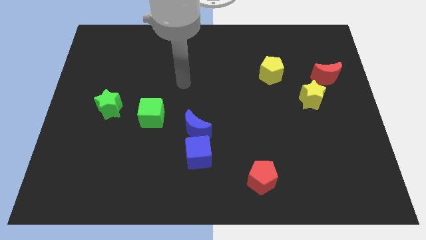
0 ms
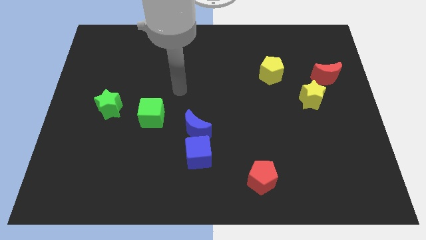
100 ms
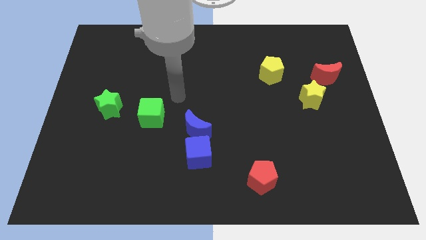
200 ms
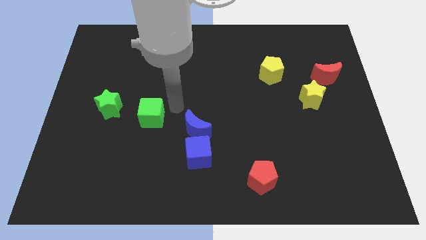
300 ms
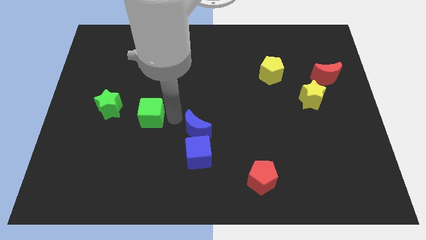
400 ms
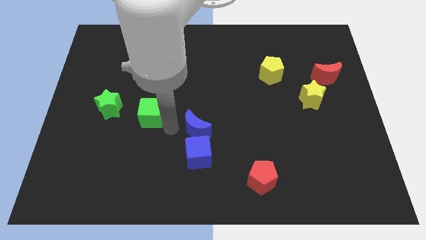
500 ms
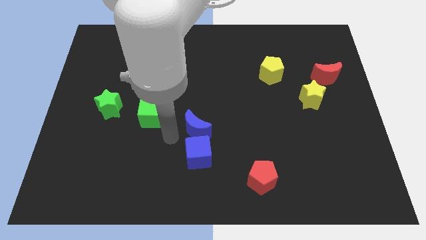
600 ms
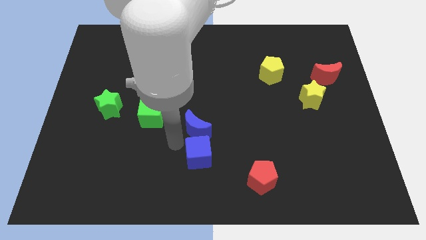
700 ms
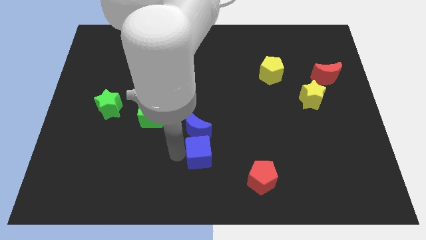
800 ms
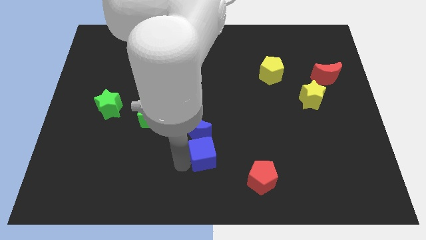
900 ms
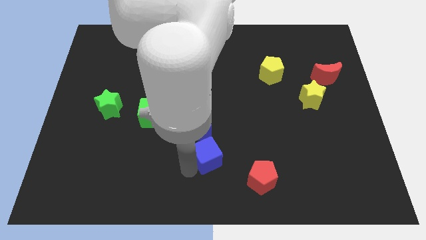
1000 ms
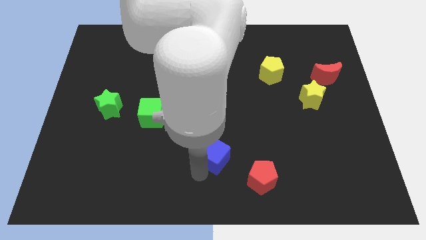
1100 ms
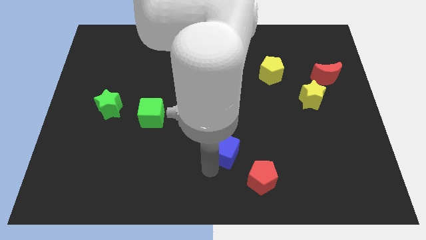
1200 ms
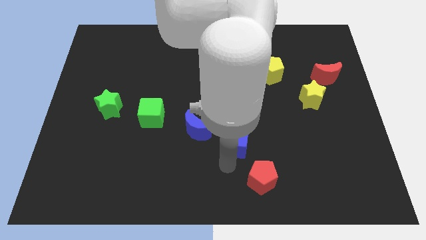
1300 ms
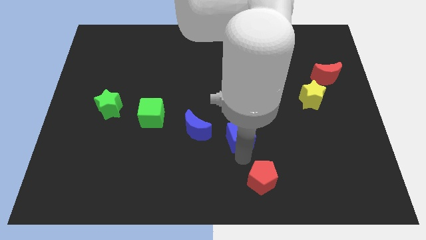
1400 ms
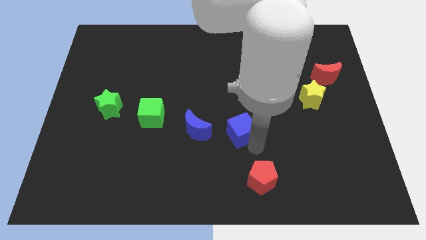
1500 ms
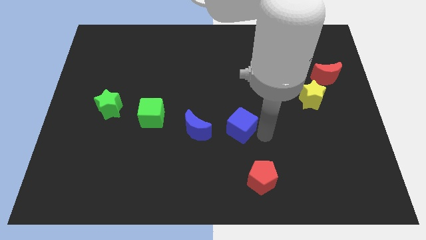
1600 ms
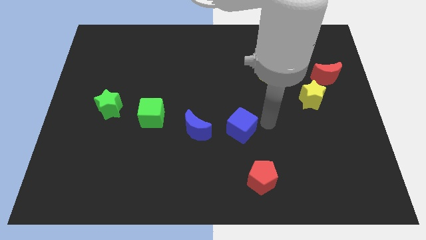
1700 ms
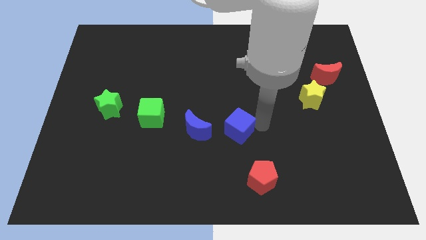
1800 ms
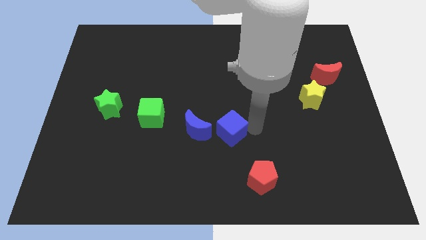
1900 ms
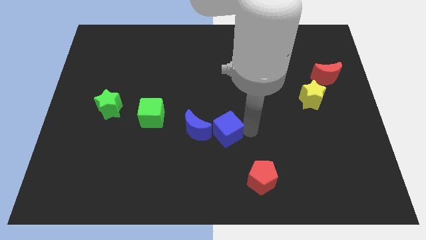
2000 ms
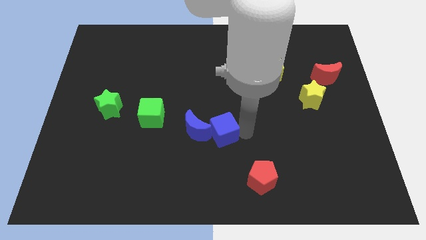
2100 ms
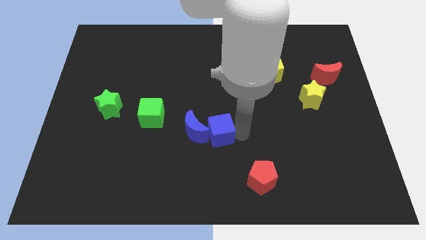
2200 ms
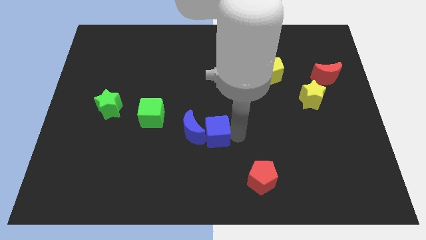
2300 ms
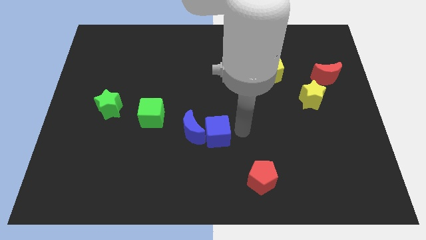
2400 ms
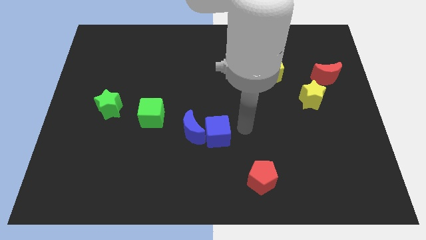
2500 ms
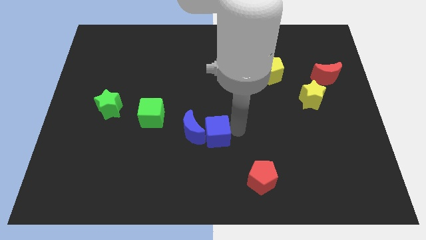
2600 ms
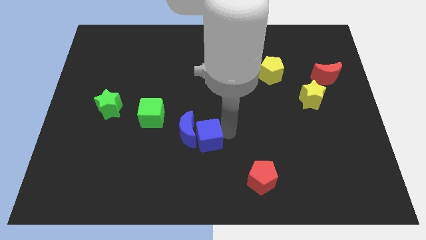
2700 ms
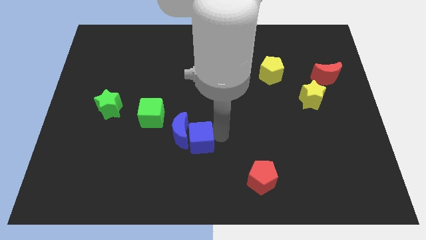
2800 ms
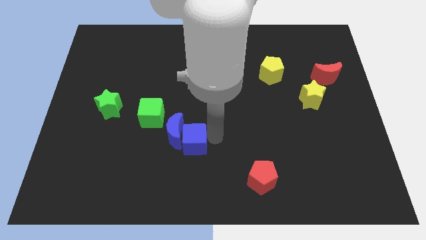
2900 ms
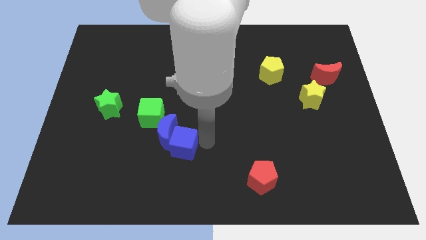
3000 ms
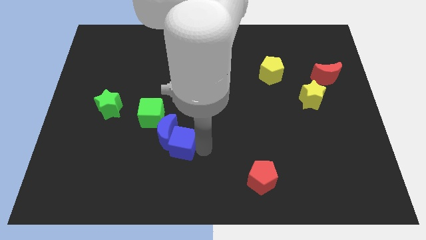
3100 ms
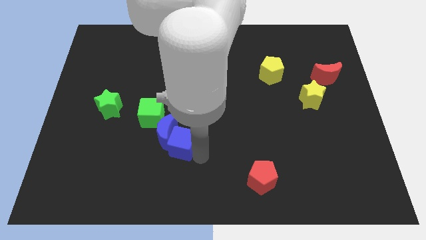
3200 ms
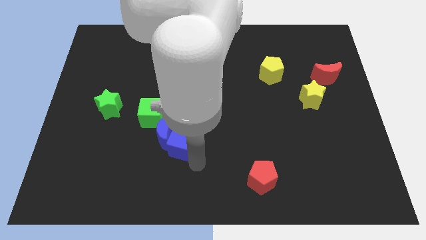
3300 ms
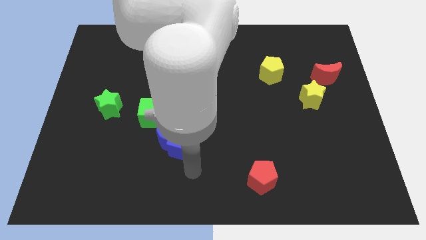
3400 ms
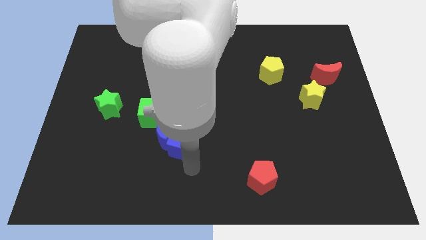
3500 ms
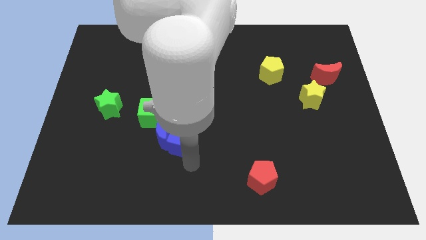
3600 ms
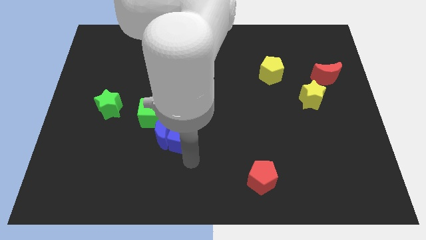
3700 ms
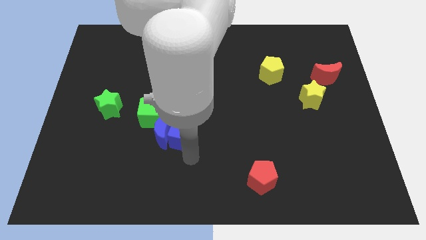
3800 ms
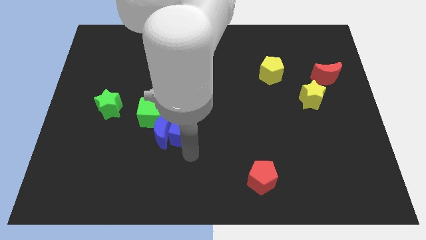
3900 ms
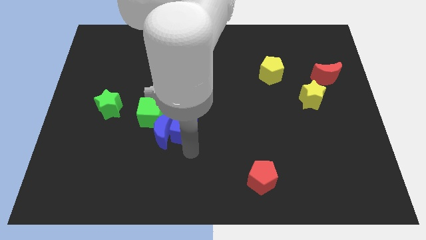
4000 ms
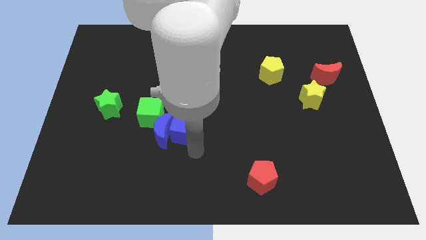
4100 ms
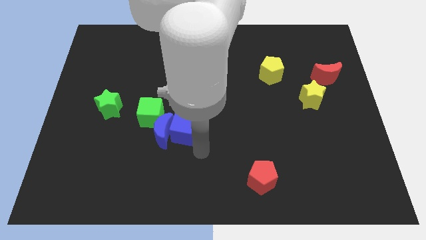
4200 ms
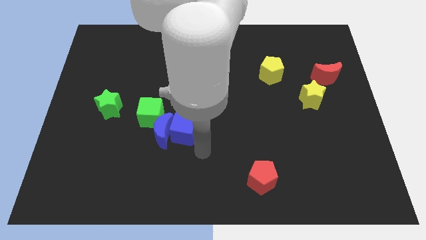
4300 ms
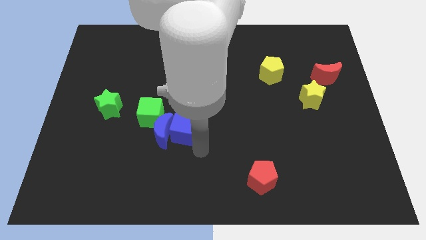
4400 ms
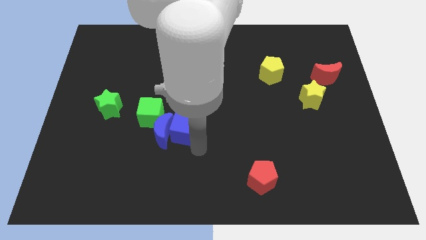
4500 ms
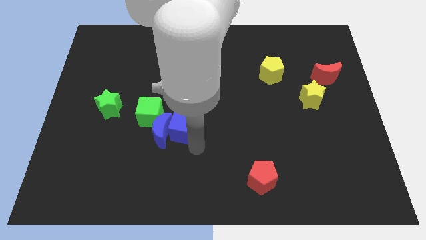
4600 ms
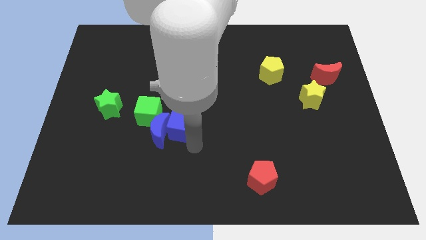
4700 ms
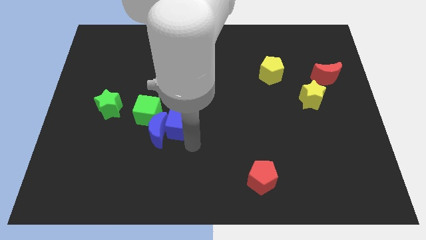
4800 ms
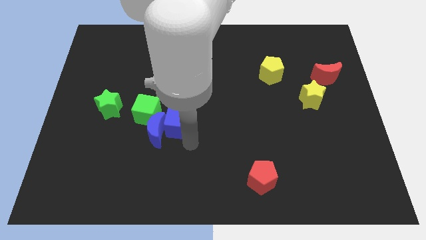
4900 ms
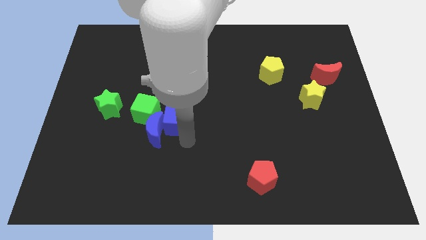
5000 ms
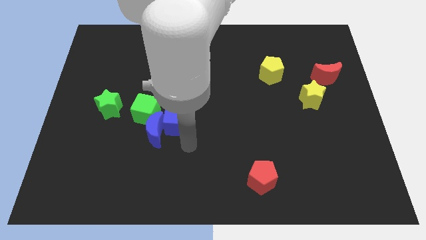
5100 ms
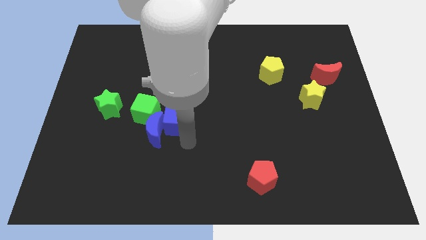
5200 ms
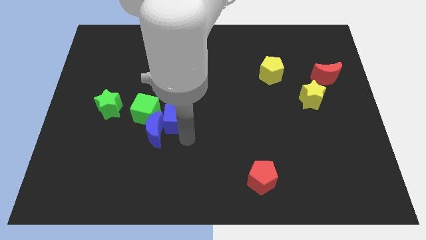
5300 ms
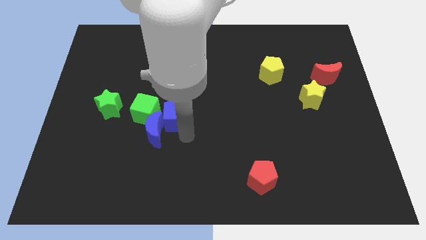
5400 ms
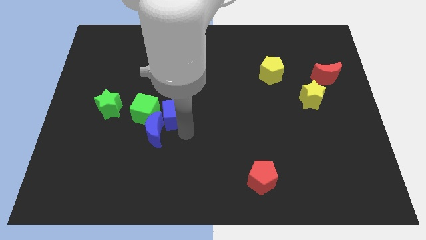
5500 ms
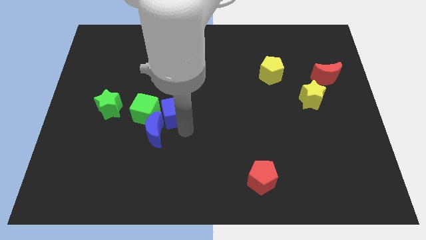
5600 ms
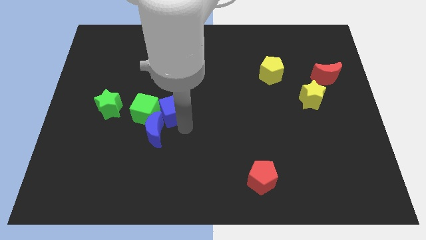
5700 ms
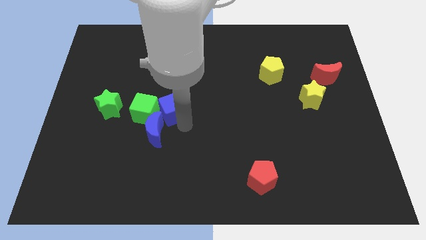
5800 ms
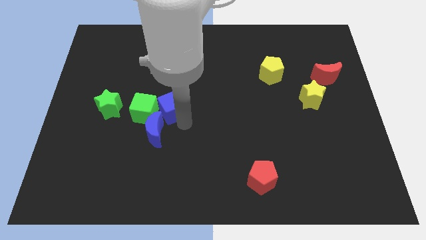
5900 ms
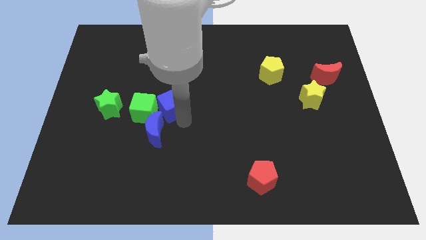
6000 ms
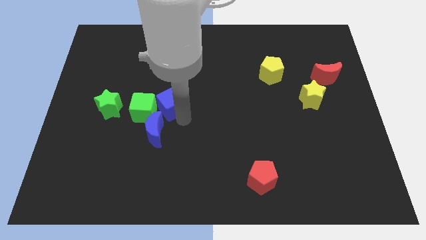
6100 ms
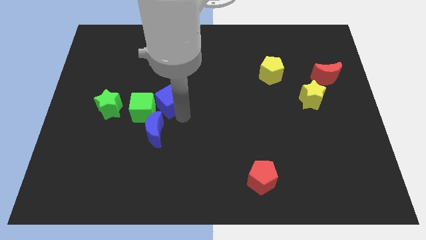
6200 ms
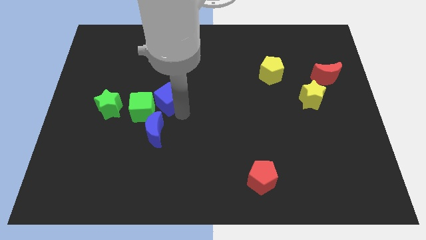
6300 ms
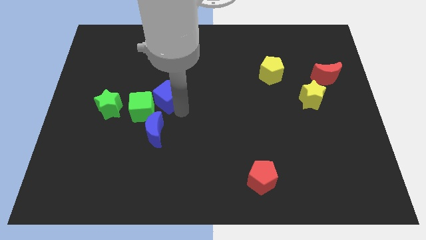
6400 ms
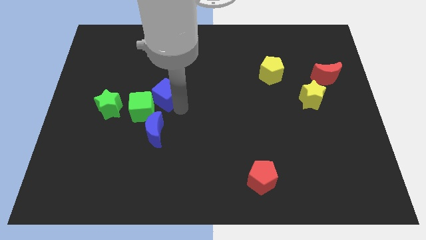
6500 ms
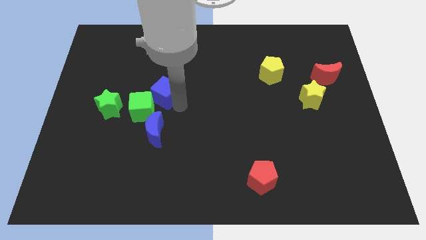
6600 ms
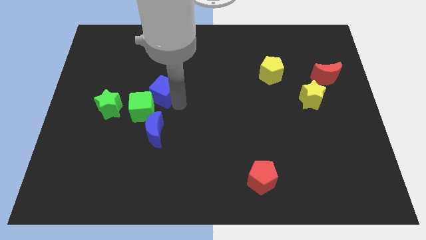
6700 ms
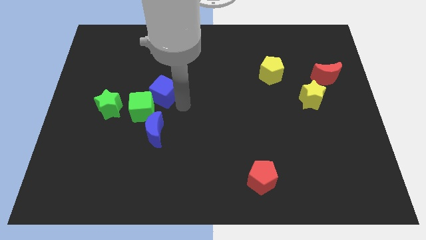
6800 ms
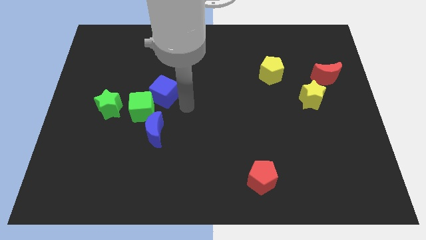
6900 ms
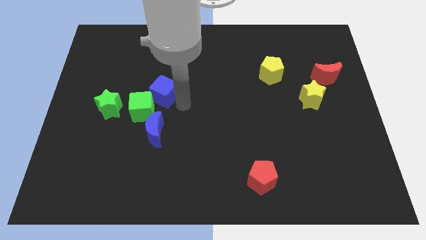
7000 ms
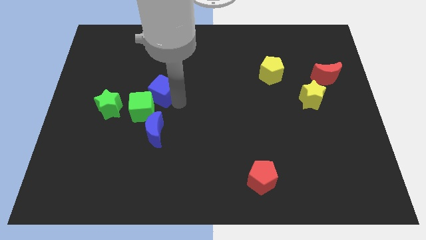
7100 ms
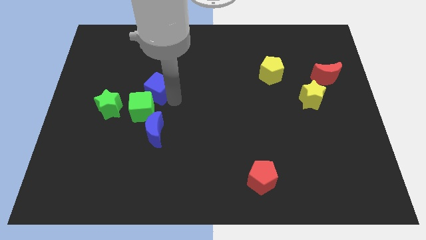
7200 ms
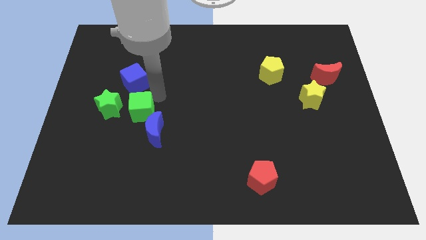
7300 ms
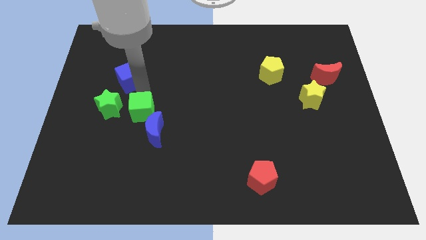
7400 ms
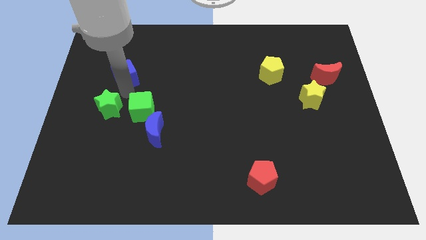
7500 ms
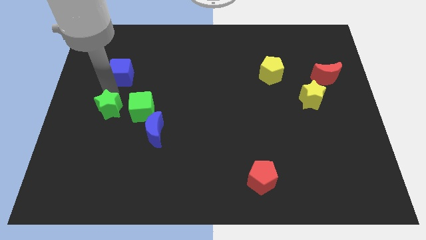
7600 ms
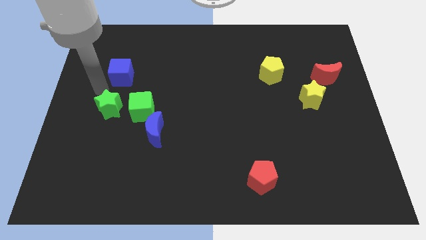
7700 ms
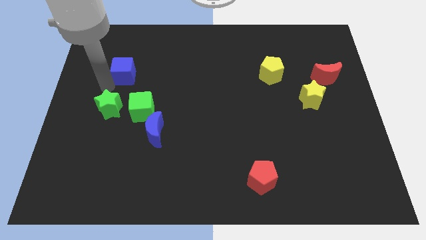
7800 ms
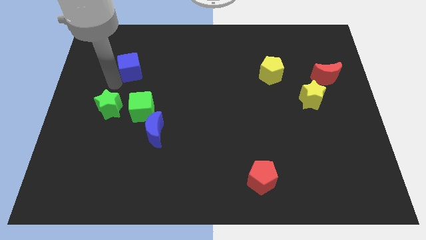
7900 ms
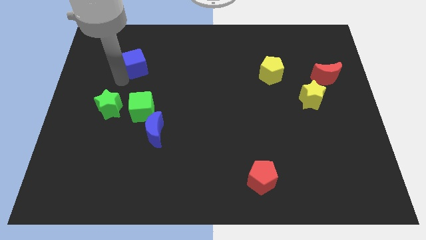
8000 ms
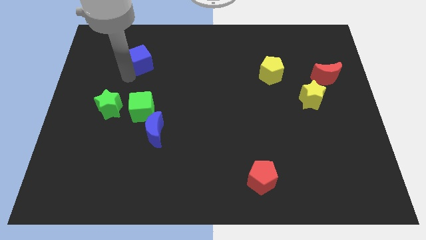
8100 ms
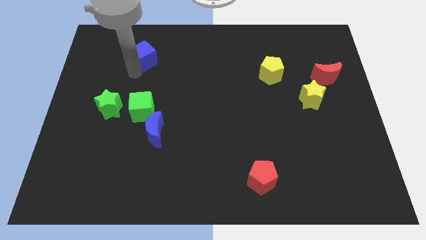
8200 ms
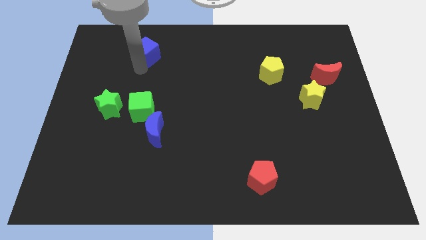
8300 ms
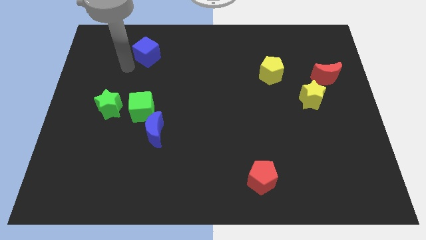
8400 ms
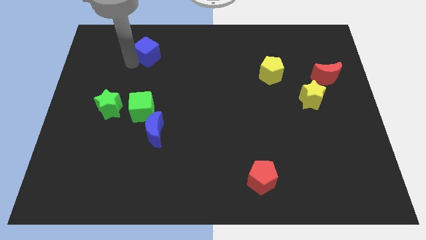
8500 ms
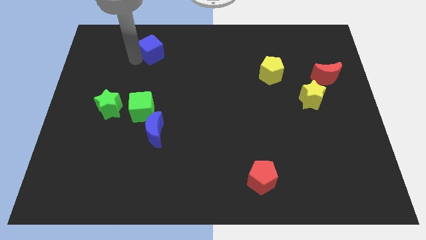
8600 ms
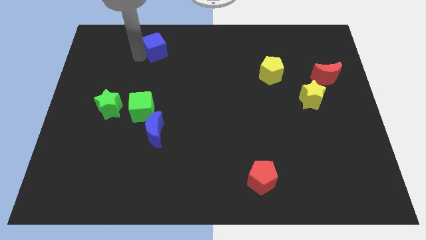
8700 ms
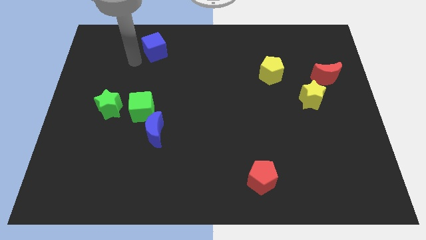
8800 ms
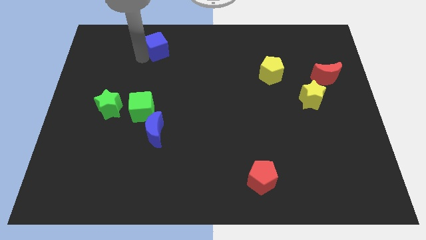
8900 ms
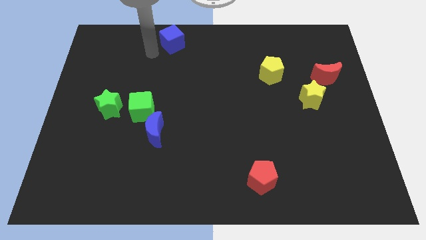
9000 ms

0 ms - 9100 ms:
slide the blue cube to the top side
